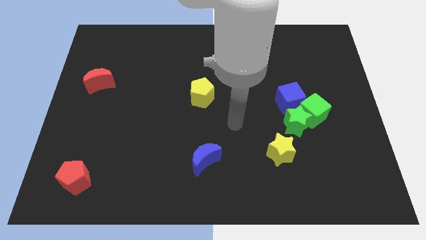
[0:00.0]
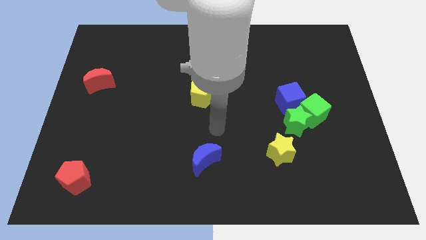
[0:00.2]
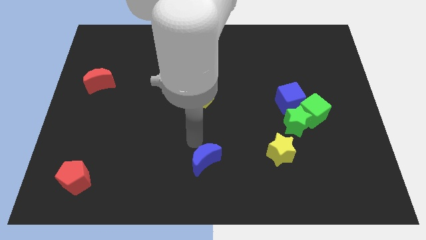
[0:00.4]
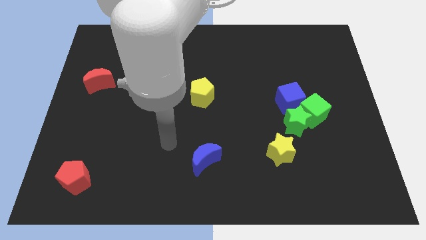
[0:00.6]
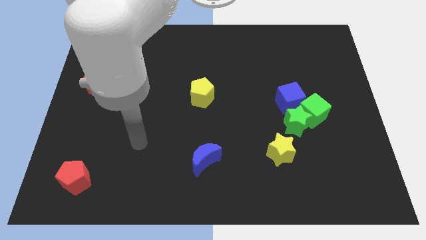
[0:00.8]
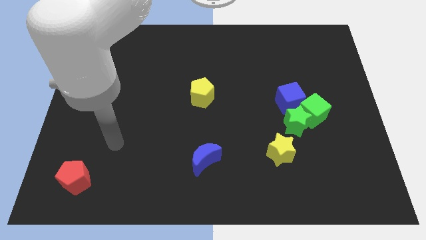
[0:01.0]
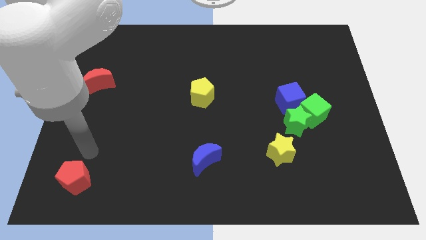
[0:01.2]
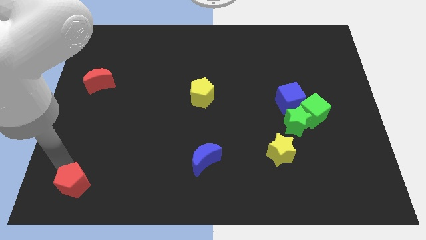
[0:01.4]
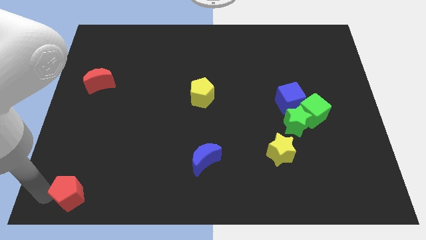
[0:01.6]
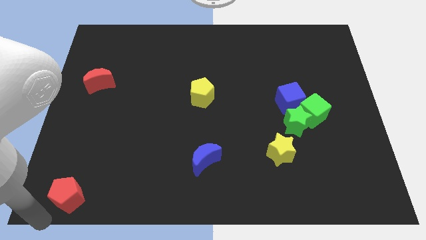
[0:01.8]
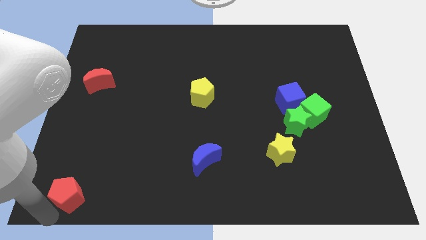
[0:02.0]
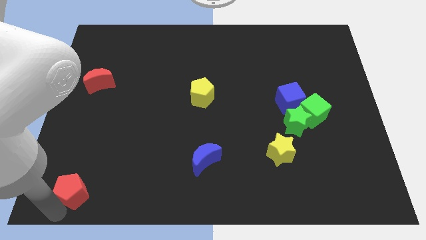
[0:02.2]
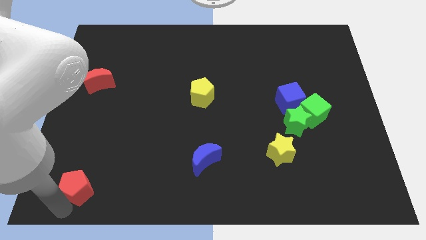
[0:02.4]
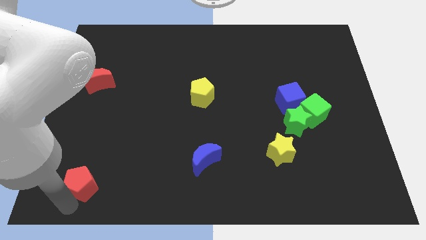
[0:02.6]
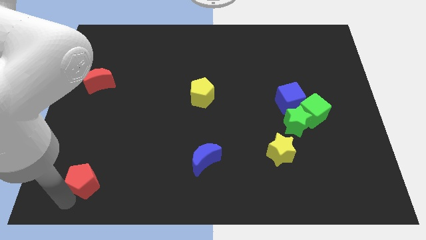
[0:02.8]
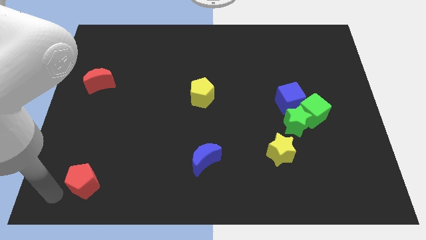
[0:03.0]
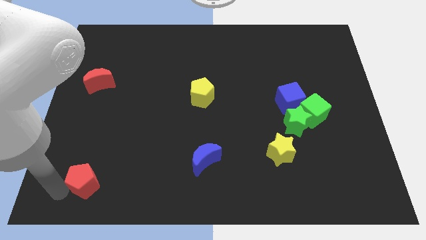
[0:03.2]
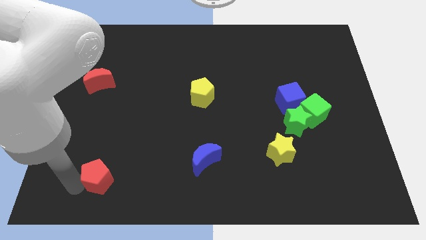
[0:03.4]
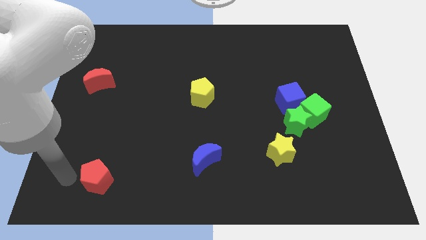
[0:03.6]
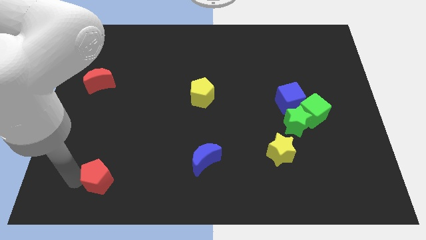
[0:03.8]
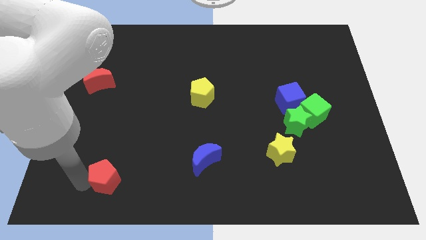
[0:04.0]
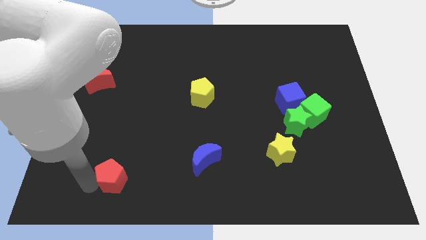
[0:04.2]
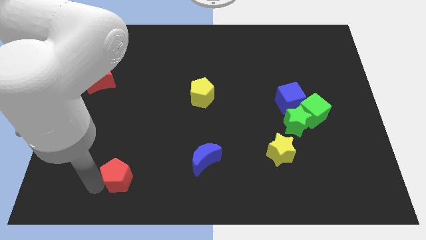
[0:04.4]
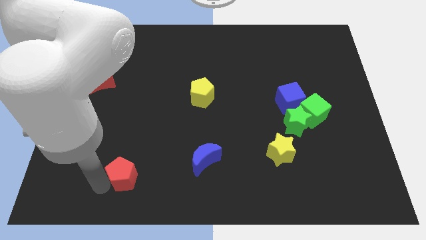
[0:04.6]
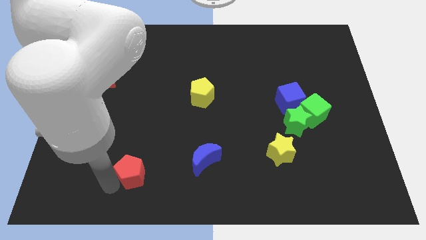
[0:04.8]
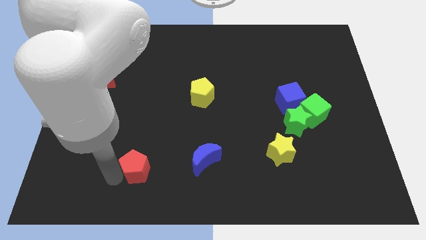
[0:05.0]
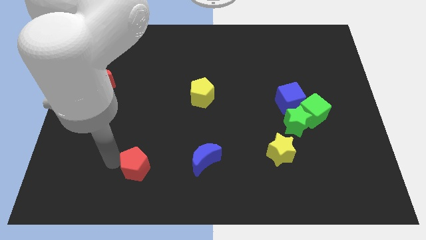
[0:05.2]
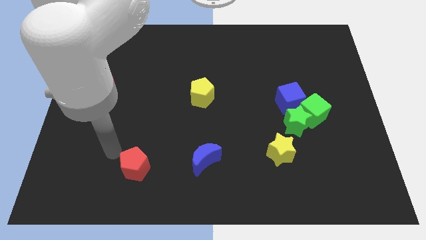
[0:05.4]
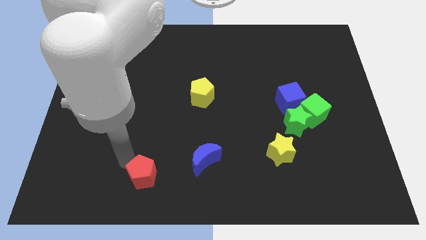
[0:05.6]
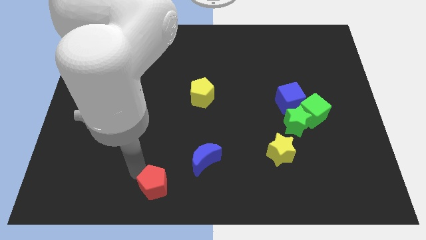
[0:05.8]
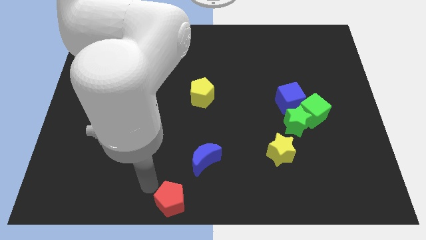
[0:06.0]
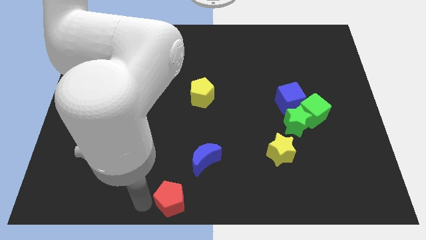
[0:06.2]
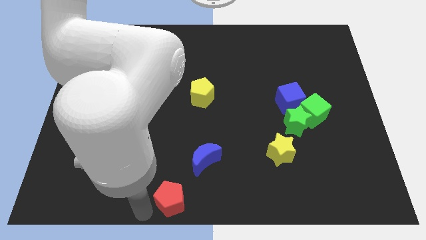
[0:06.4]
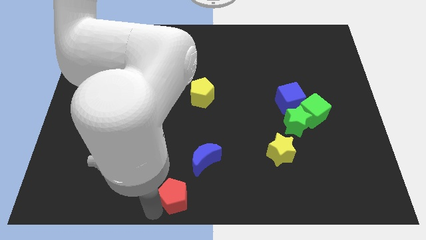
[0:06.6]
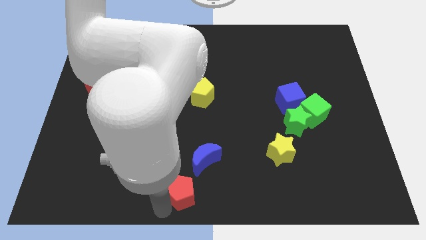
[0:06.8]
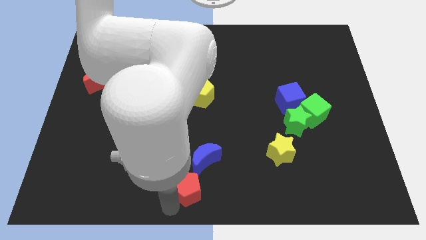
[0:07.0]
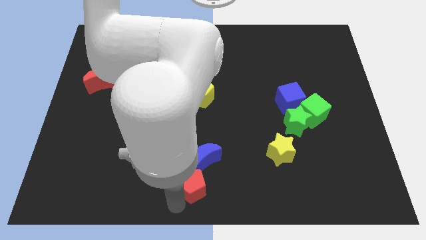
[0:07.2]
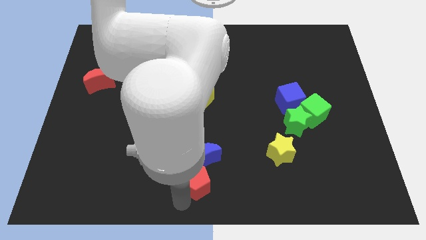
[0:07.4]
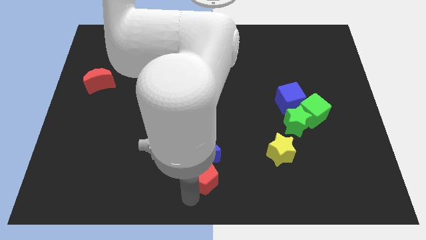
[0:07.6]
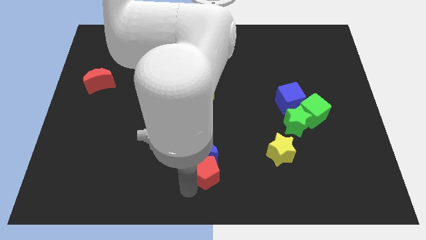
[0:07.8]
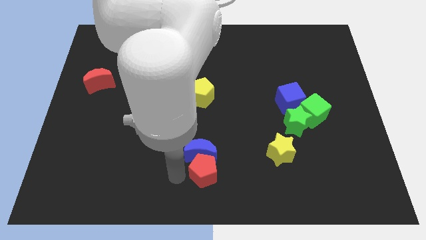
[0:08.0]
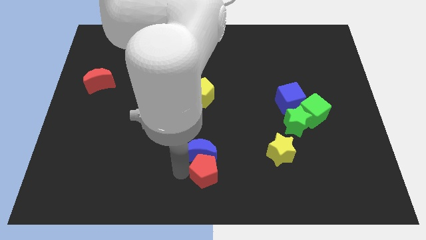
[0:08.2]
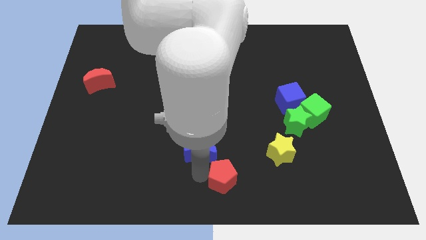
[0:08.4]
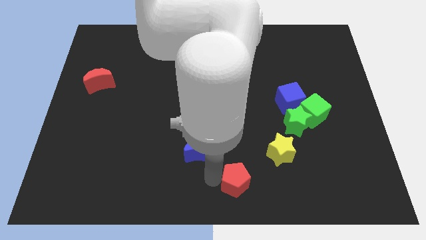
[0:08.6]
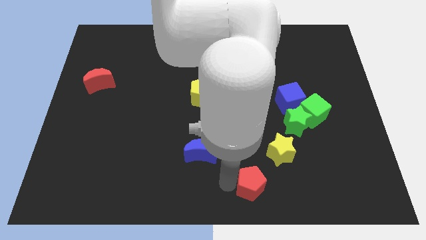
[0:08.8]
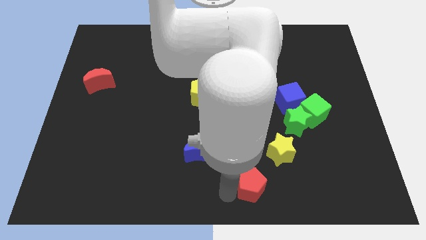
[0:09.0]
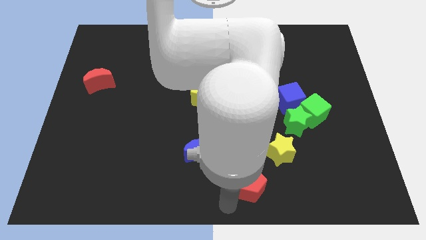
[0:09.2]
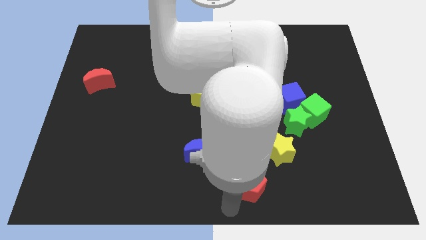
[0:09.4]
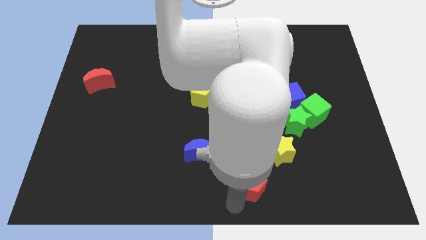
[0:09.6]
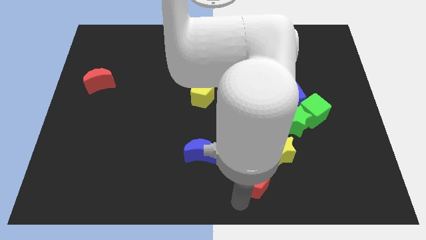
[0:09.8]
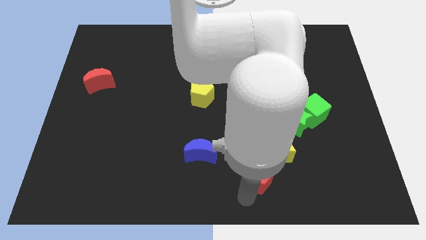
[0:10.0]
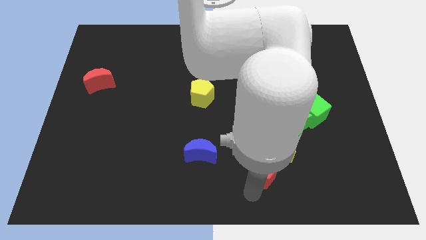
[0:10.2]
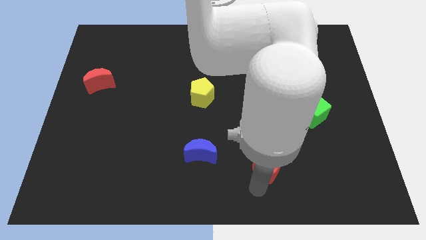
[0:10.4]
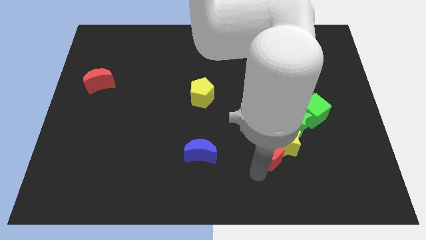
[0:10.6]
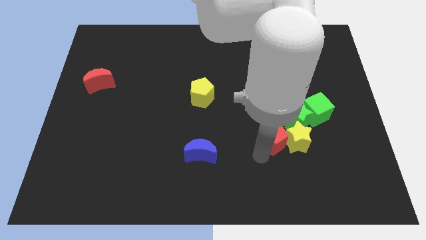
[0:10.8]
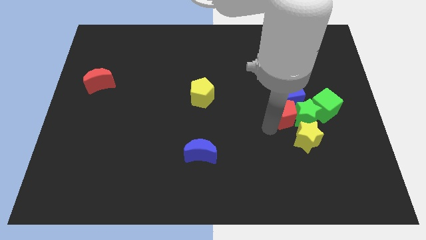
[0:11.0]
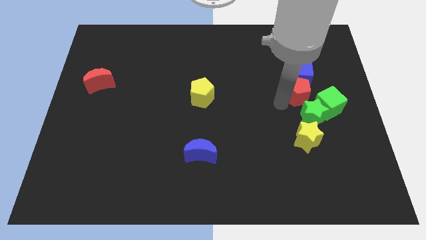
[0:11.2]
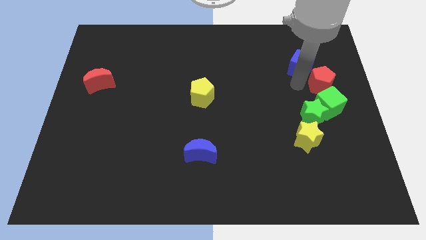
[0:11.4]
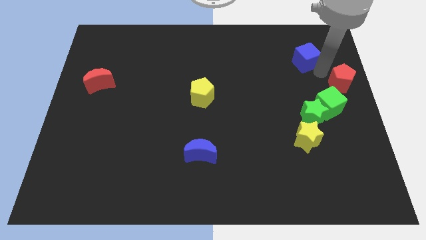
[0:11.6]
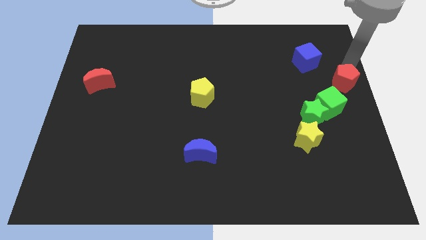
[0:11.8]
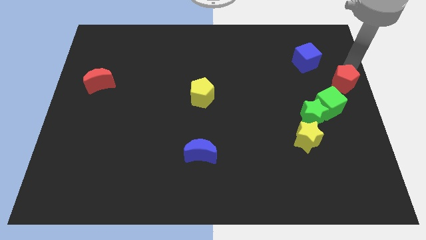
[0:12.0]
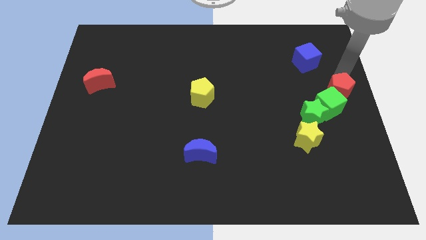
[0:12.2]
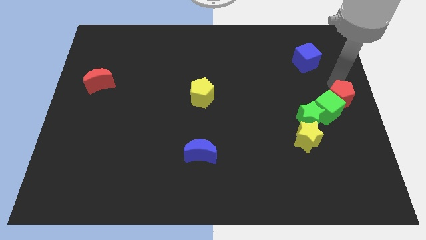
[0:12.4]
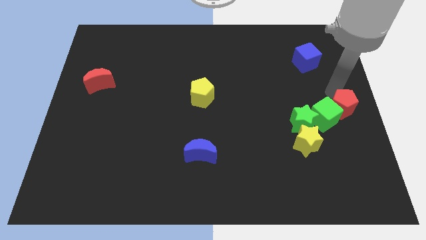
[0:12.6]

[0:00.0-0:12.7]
slide the red pentagon to the right of the green star

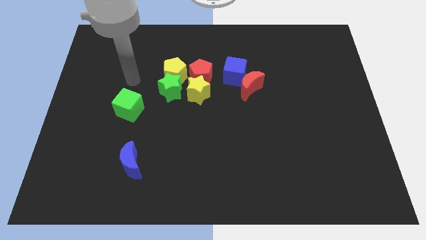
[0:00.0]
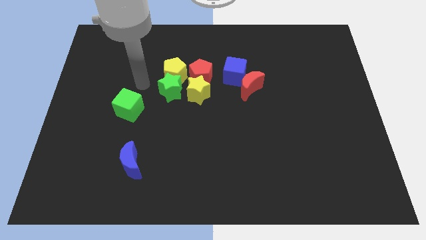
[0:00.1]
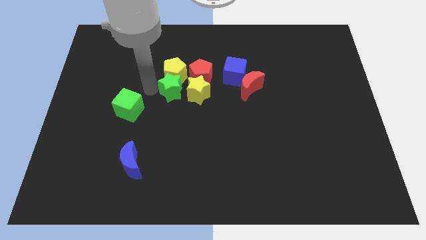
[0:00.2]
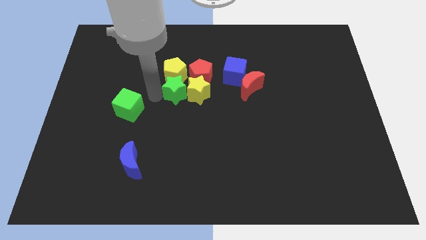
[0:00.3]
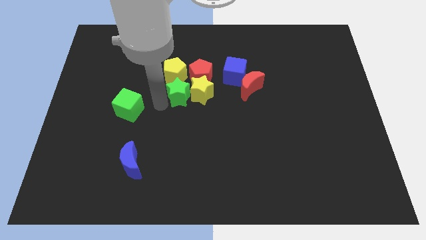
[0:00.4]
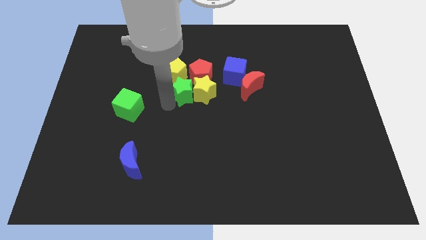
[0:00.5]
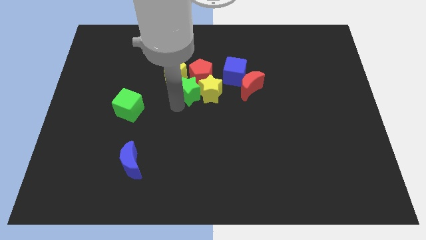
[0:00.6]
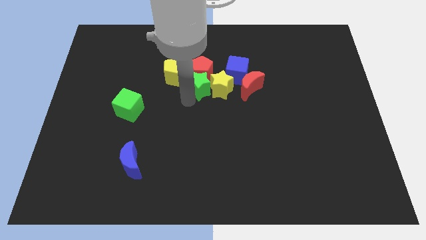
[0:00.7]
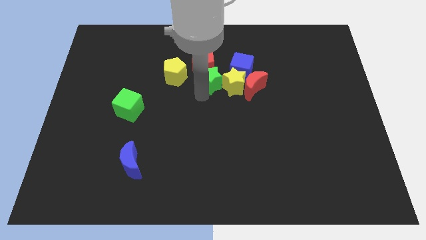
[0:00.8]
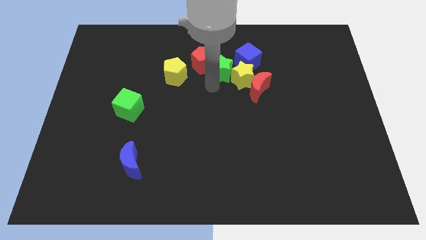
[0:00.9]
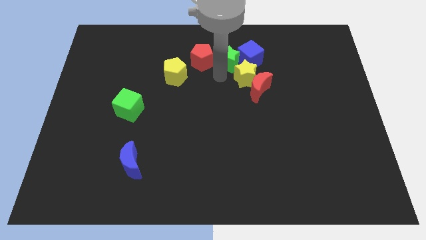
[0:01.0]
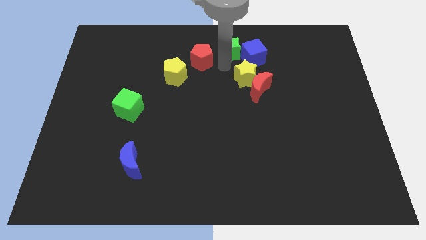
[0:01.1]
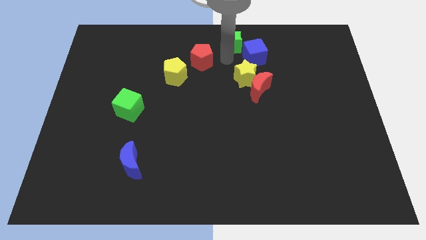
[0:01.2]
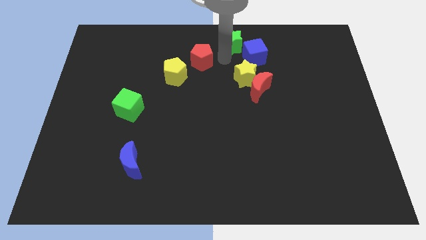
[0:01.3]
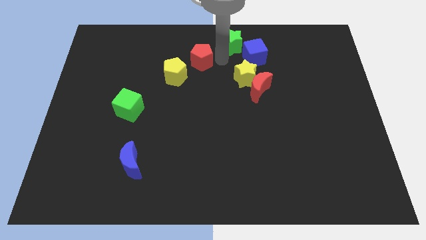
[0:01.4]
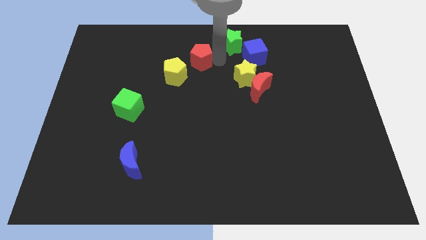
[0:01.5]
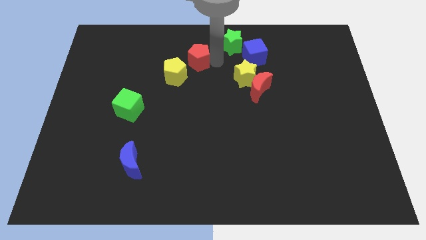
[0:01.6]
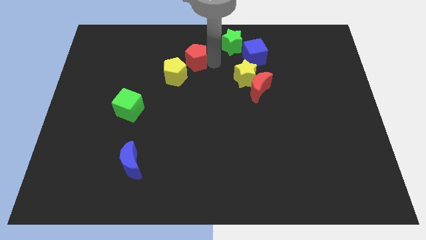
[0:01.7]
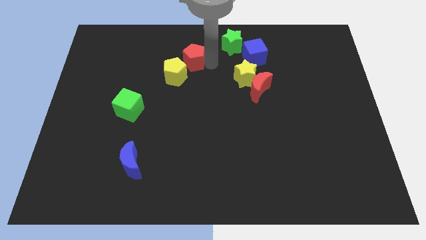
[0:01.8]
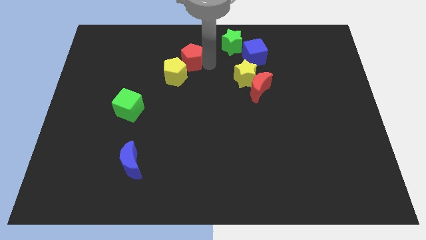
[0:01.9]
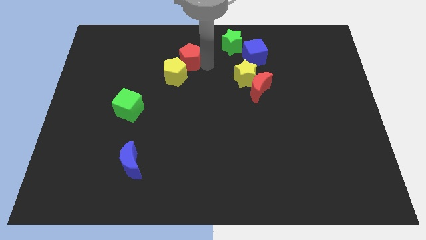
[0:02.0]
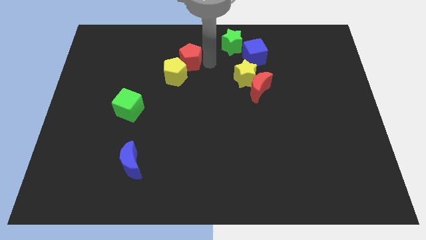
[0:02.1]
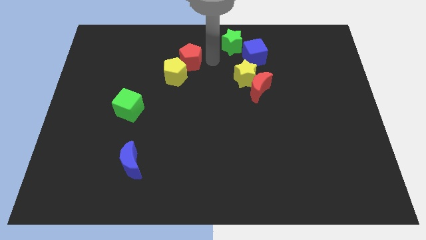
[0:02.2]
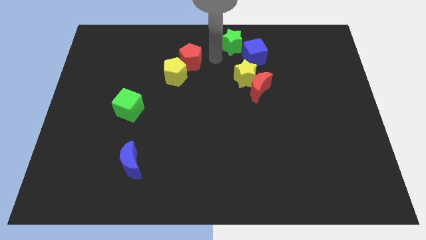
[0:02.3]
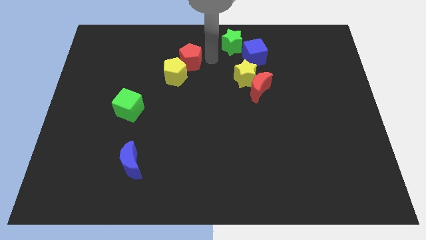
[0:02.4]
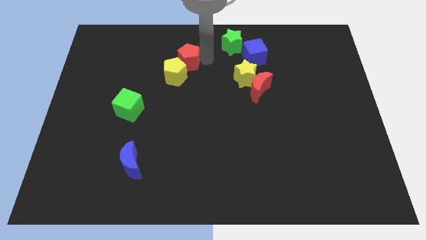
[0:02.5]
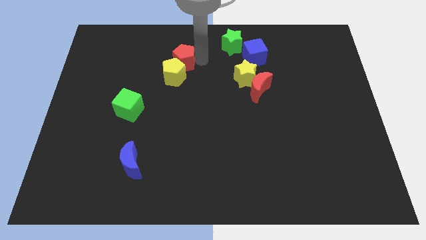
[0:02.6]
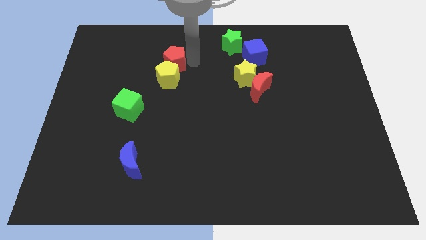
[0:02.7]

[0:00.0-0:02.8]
slide the red pentagon to the top left side of the yellow pentagon
